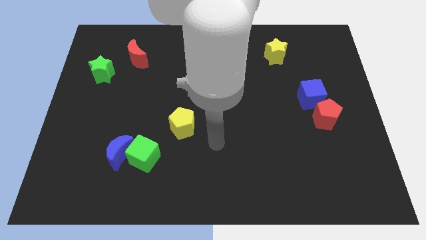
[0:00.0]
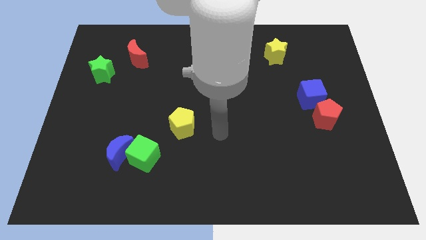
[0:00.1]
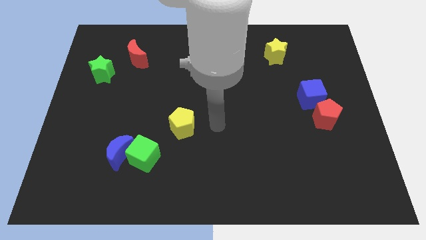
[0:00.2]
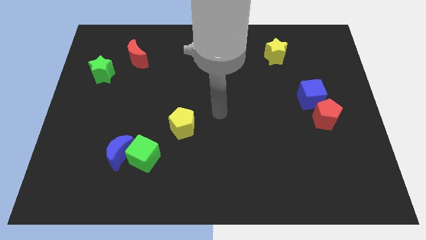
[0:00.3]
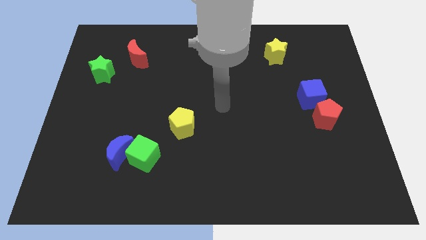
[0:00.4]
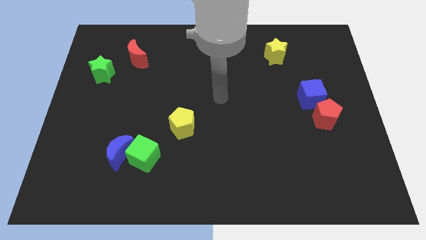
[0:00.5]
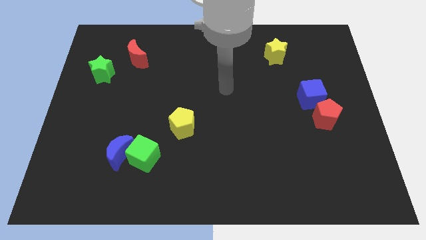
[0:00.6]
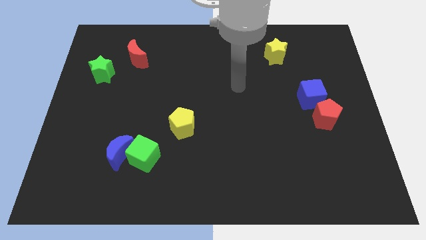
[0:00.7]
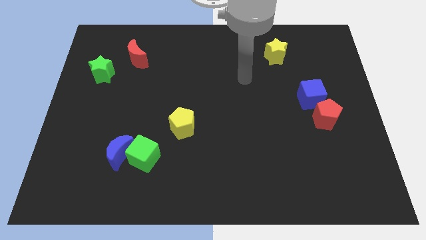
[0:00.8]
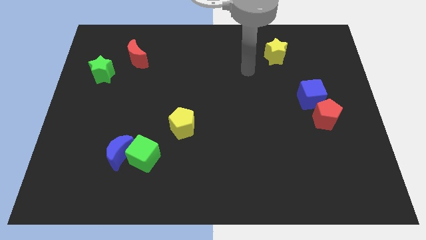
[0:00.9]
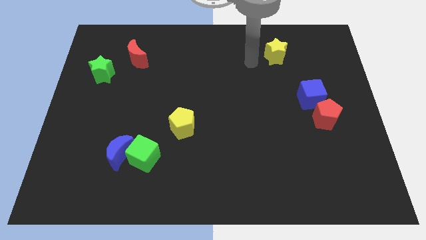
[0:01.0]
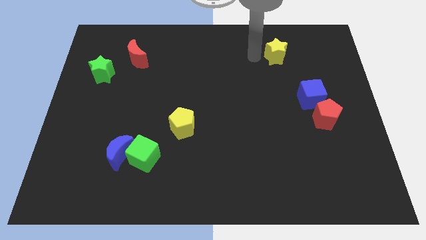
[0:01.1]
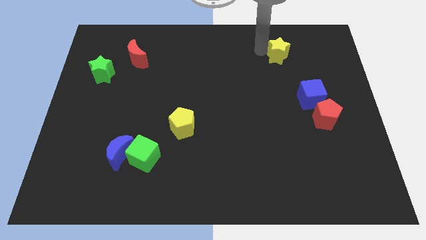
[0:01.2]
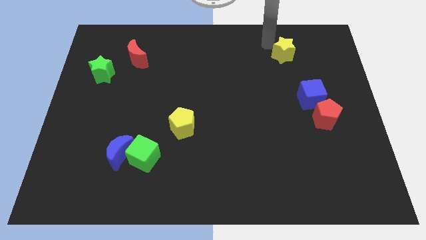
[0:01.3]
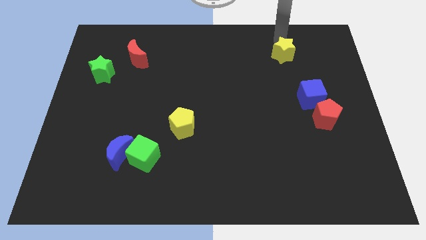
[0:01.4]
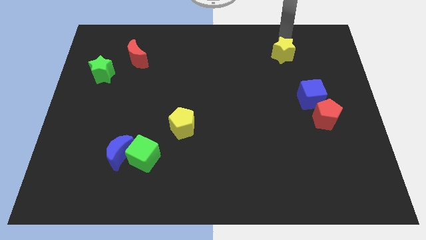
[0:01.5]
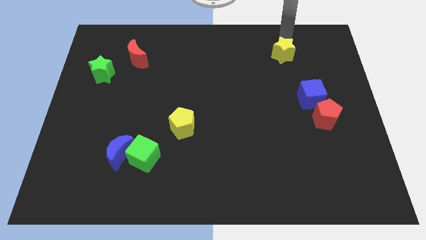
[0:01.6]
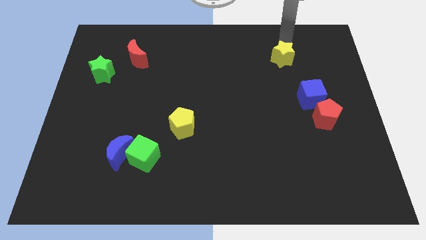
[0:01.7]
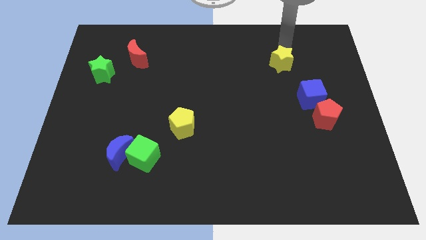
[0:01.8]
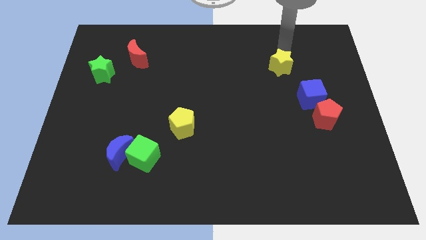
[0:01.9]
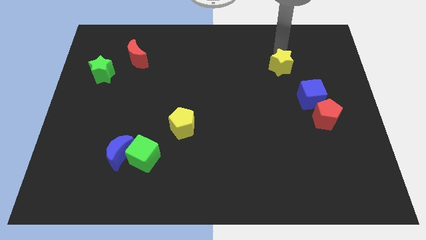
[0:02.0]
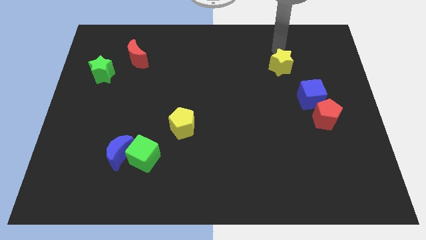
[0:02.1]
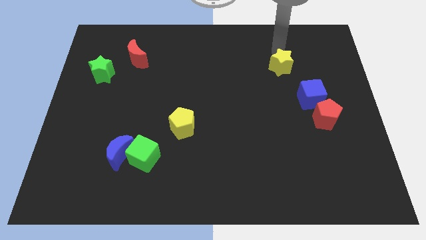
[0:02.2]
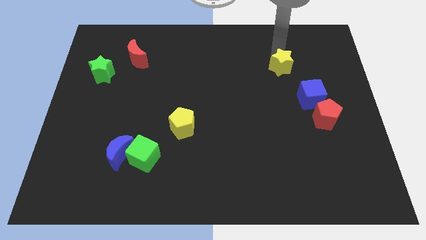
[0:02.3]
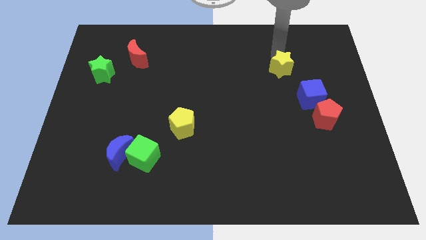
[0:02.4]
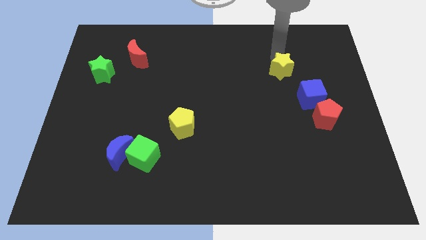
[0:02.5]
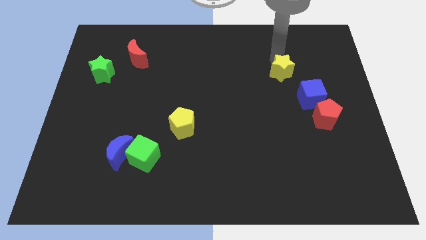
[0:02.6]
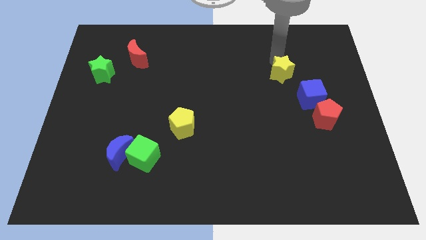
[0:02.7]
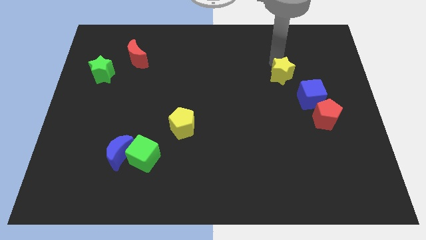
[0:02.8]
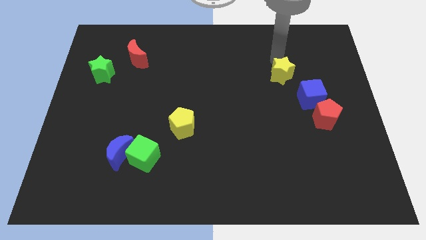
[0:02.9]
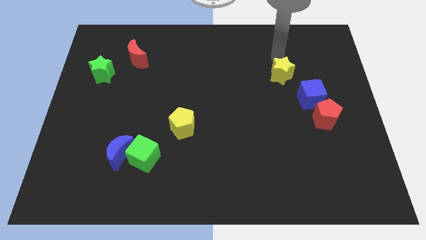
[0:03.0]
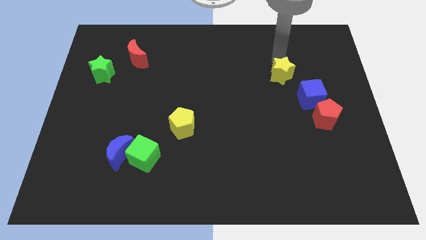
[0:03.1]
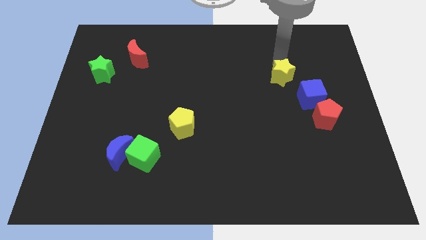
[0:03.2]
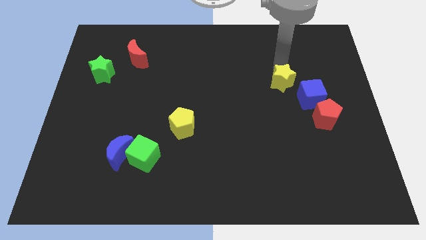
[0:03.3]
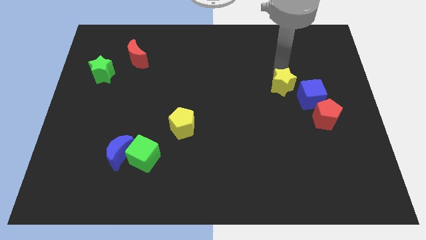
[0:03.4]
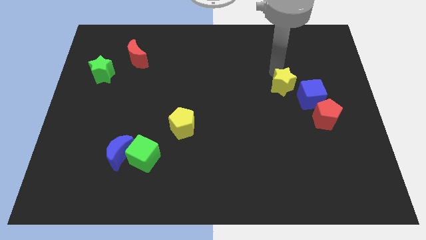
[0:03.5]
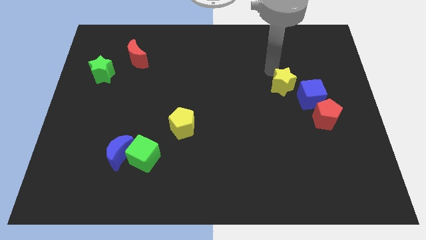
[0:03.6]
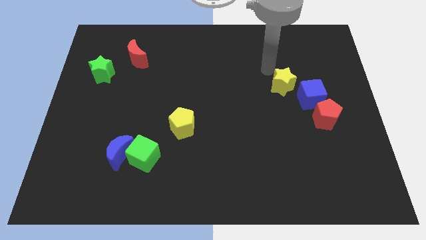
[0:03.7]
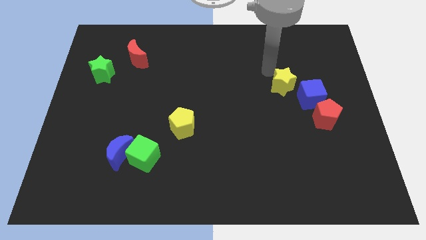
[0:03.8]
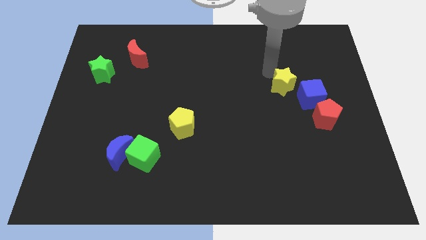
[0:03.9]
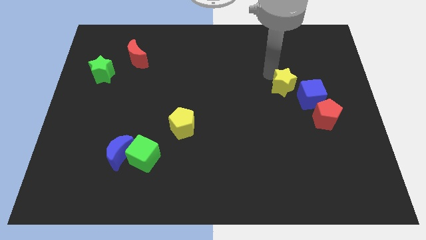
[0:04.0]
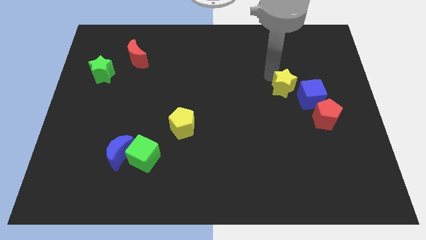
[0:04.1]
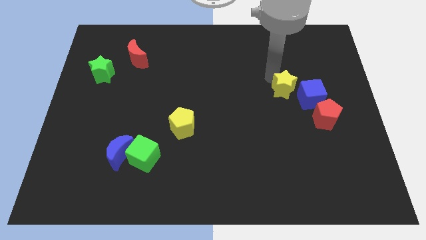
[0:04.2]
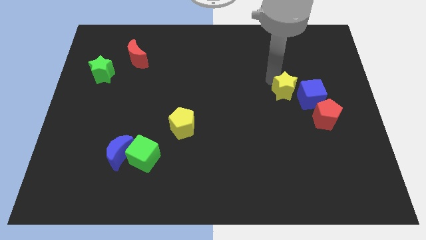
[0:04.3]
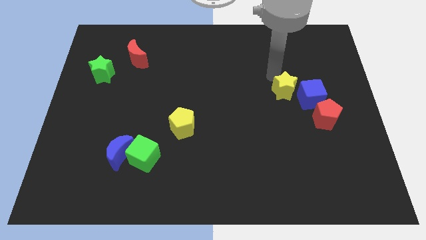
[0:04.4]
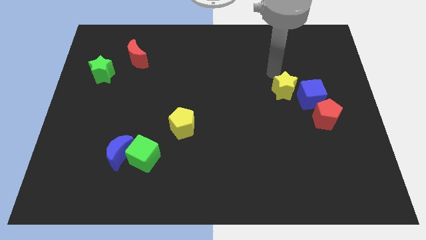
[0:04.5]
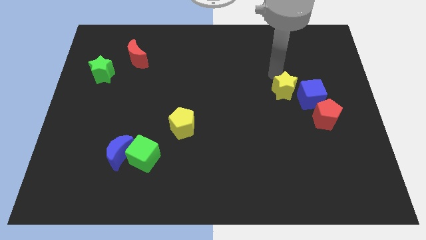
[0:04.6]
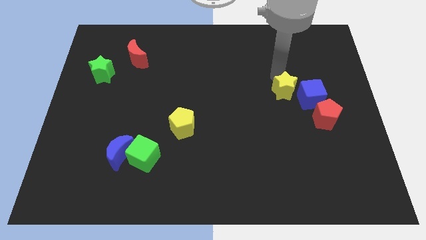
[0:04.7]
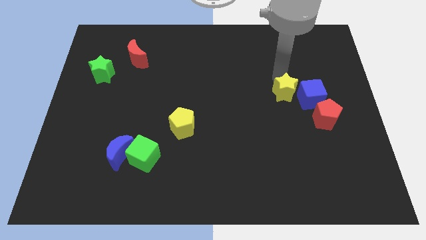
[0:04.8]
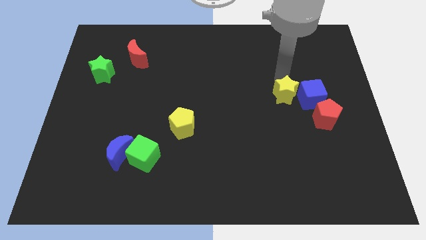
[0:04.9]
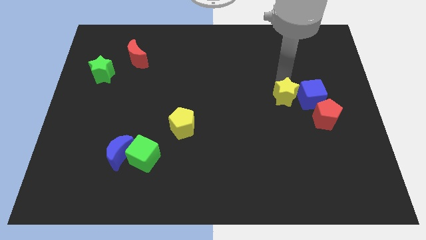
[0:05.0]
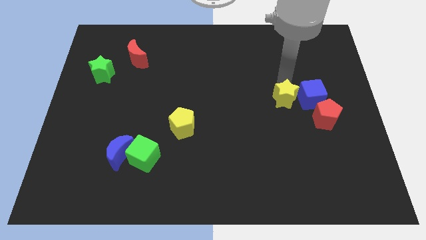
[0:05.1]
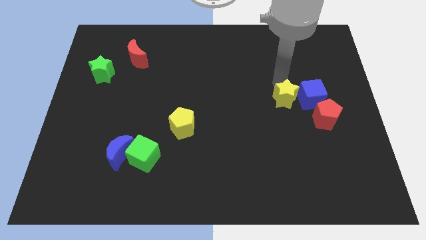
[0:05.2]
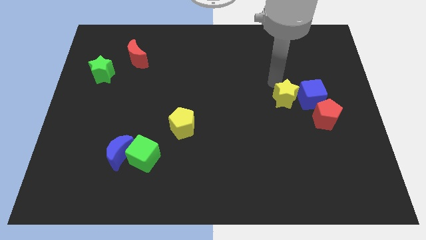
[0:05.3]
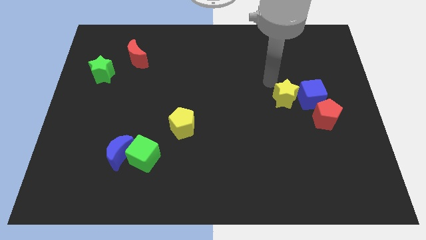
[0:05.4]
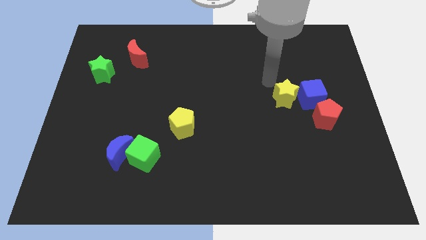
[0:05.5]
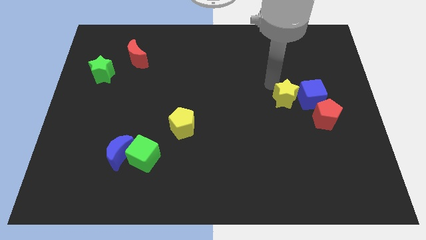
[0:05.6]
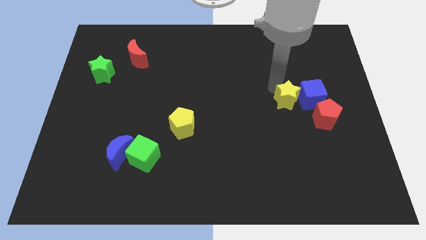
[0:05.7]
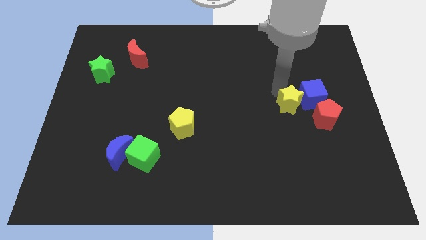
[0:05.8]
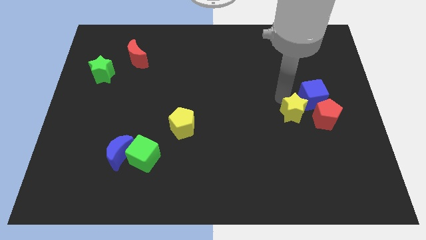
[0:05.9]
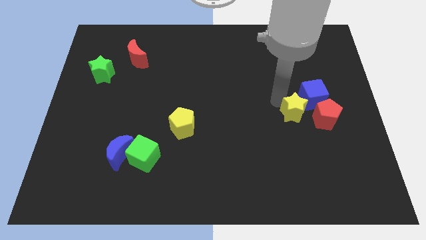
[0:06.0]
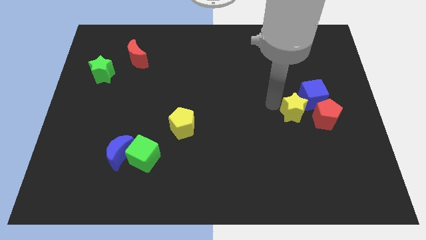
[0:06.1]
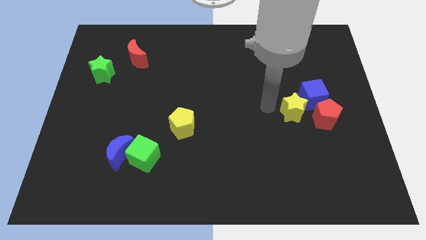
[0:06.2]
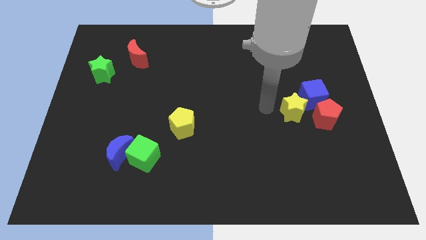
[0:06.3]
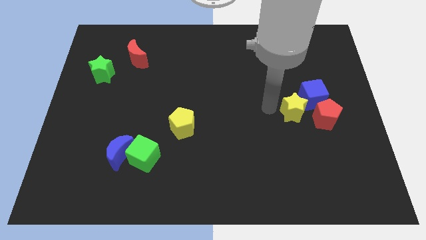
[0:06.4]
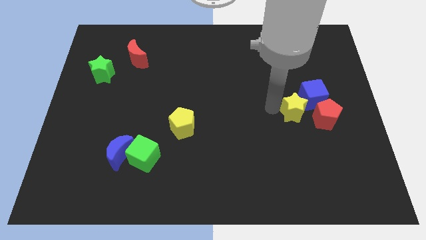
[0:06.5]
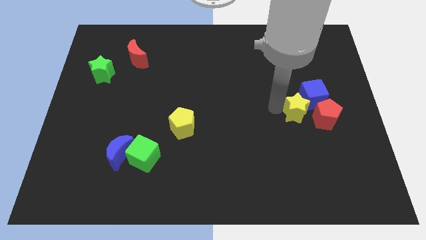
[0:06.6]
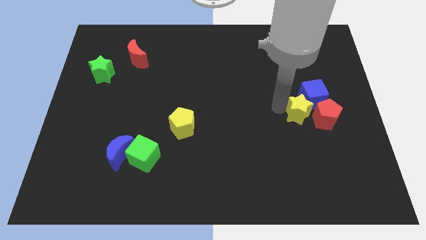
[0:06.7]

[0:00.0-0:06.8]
push the yellow star to the red pentagon
